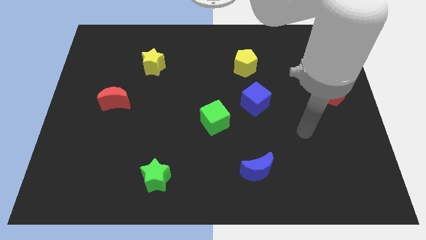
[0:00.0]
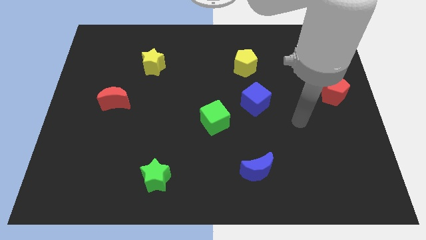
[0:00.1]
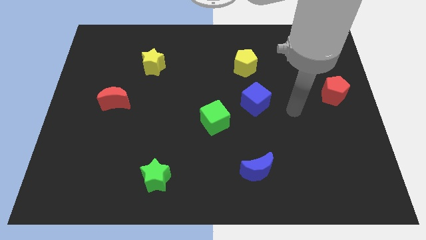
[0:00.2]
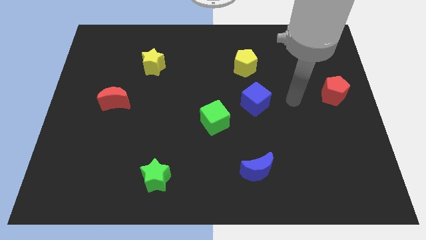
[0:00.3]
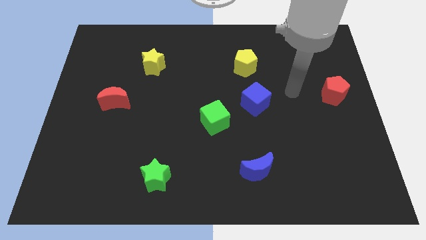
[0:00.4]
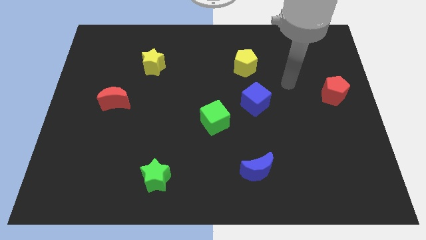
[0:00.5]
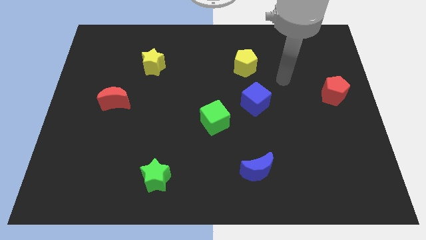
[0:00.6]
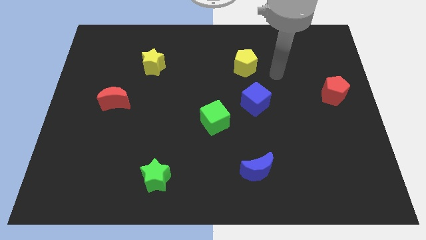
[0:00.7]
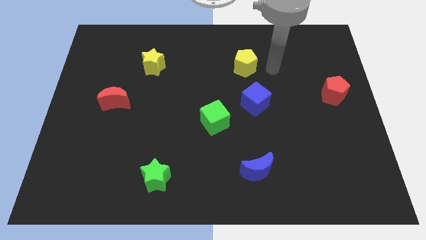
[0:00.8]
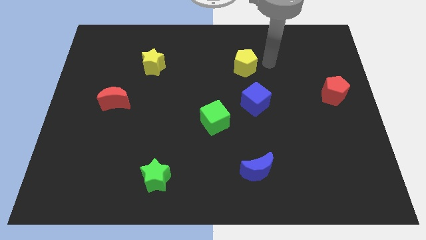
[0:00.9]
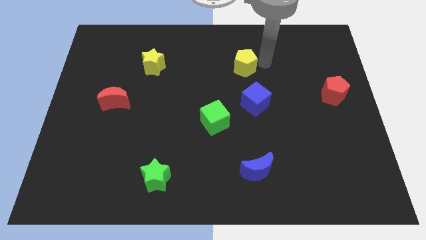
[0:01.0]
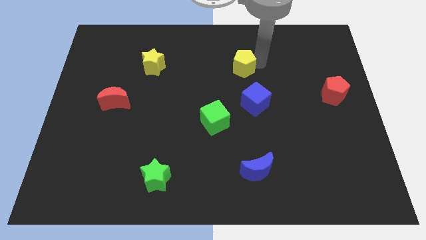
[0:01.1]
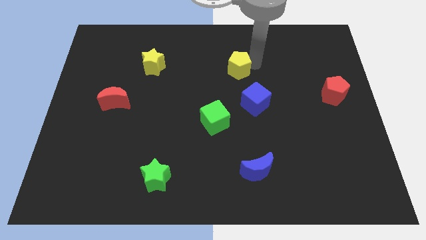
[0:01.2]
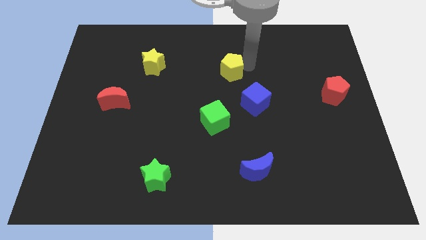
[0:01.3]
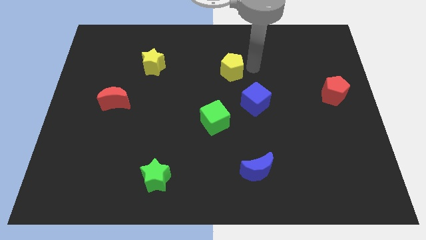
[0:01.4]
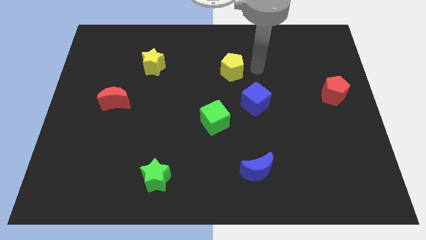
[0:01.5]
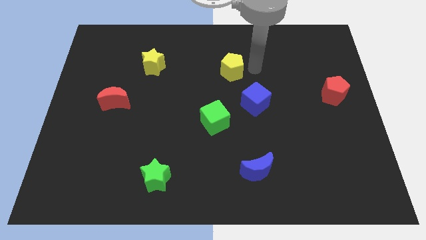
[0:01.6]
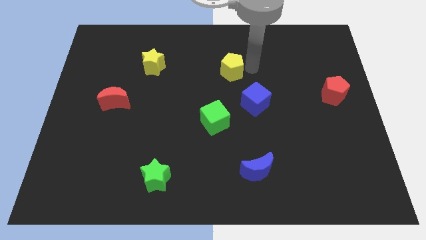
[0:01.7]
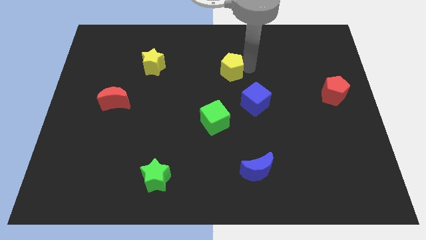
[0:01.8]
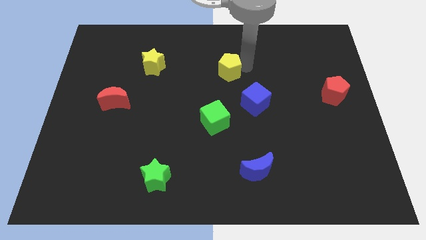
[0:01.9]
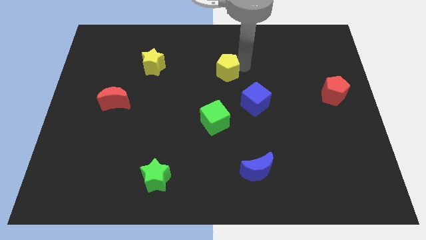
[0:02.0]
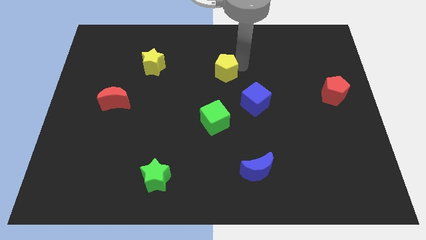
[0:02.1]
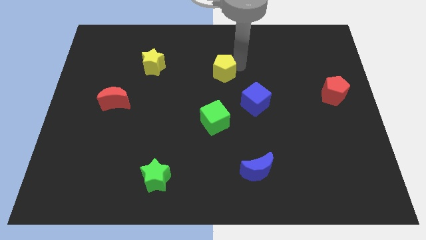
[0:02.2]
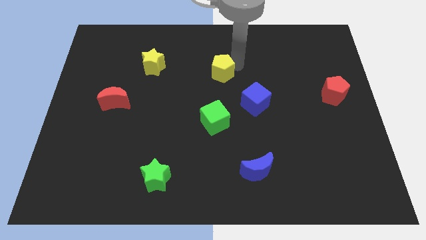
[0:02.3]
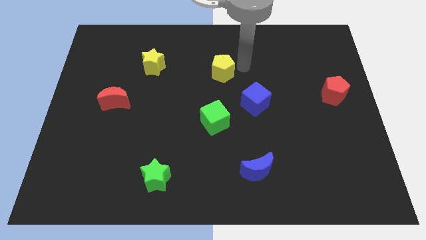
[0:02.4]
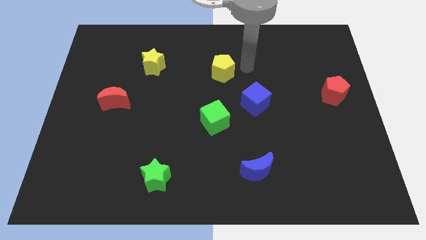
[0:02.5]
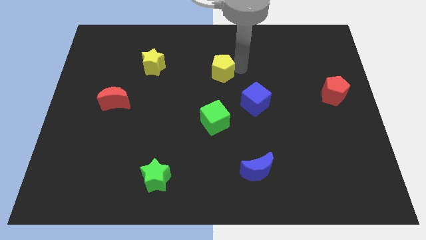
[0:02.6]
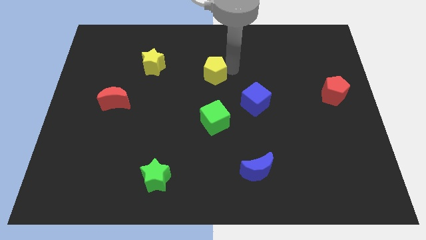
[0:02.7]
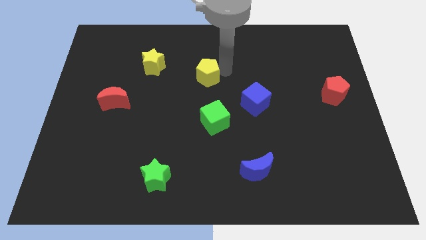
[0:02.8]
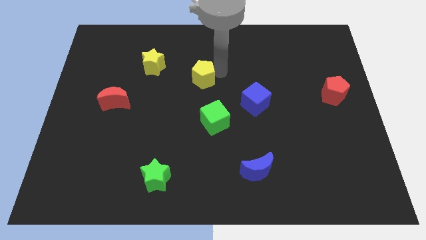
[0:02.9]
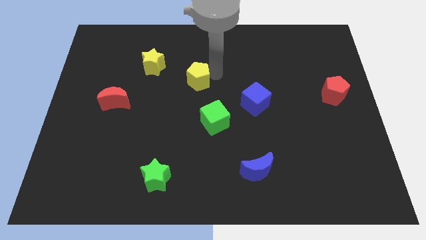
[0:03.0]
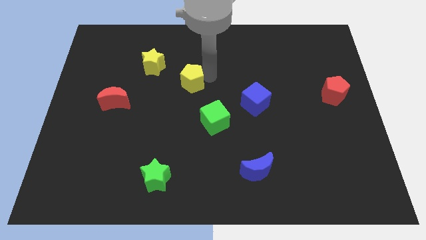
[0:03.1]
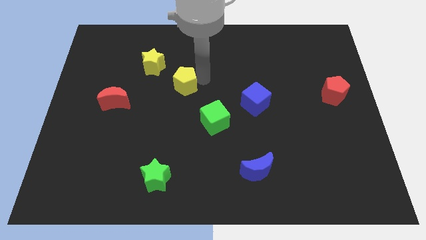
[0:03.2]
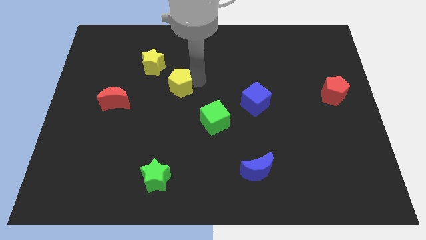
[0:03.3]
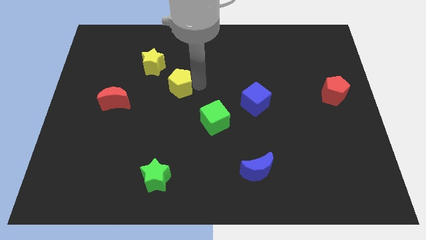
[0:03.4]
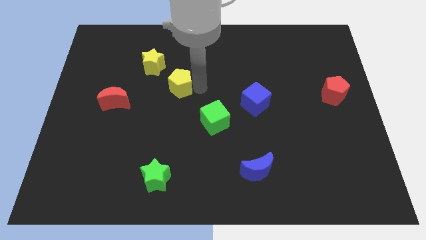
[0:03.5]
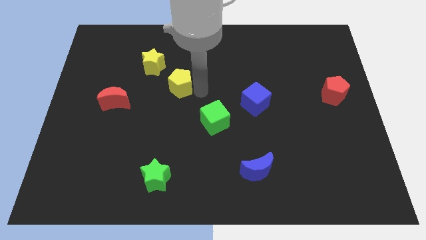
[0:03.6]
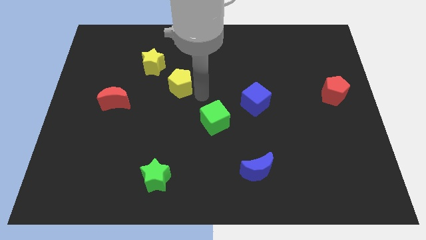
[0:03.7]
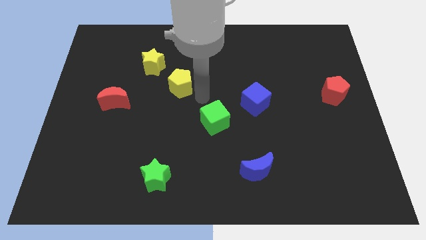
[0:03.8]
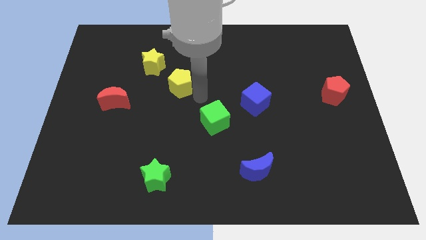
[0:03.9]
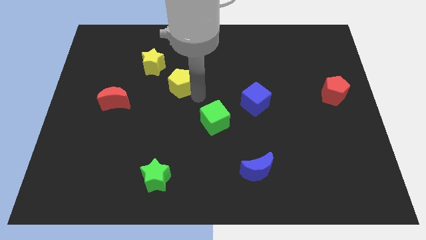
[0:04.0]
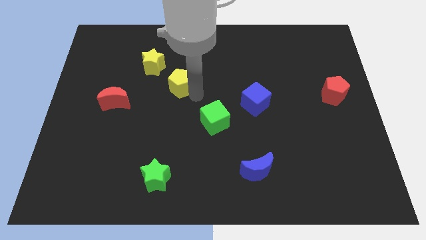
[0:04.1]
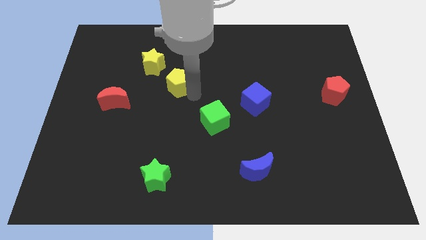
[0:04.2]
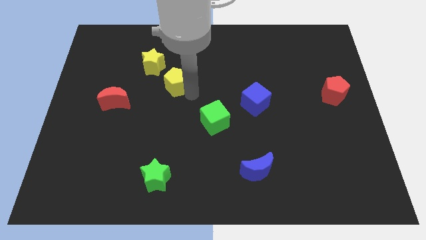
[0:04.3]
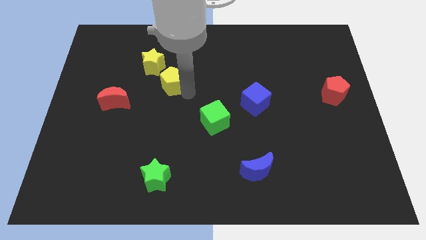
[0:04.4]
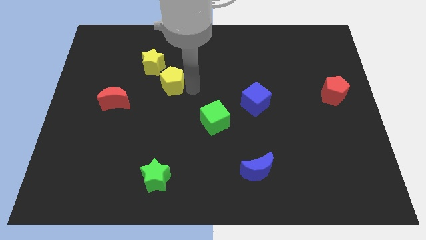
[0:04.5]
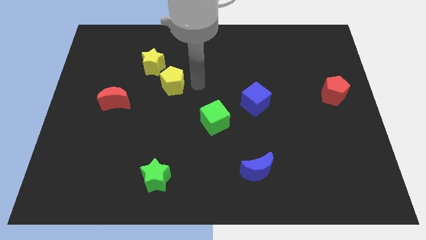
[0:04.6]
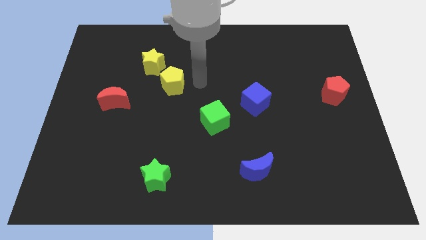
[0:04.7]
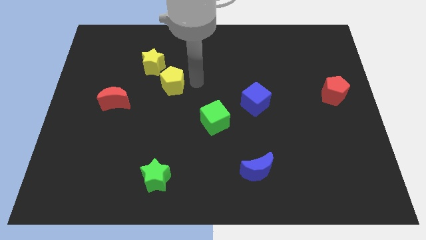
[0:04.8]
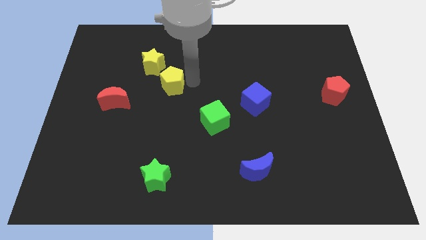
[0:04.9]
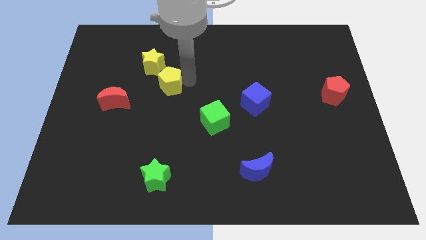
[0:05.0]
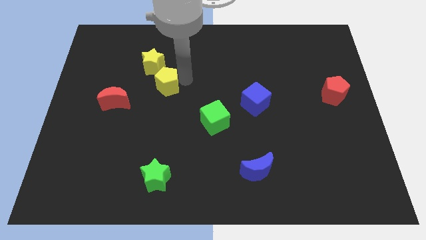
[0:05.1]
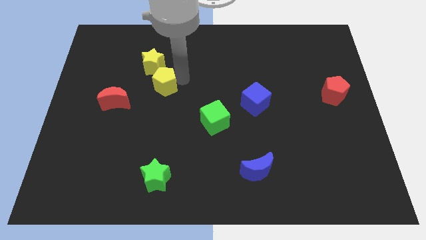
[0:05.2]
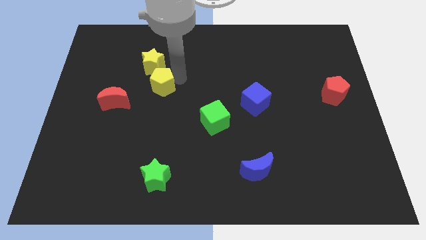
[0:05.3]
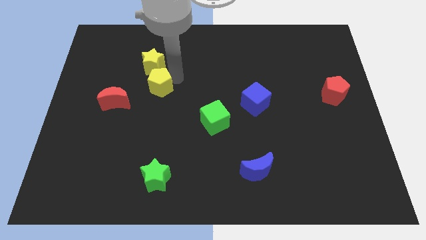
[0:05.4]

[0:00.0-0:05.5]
put the yellow pentagon to the top right of the red moon

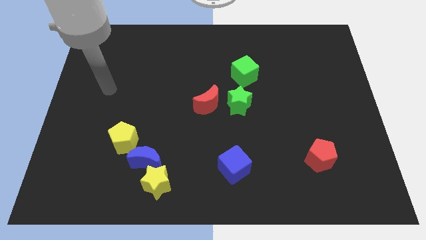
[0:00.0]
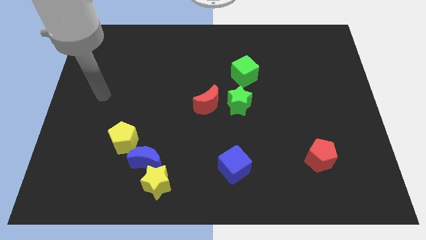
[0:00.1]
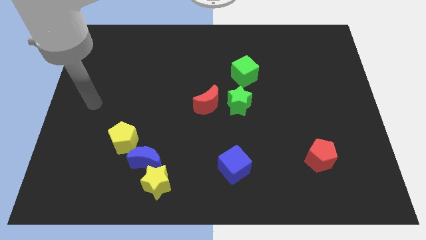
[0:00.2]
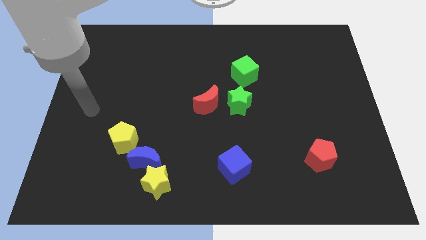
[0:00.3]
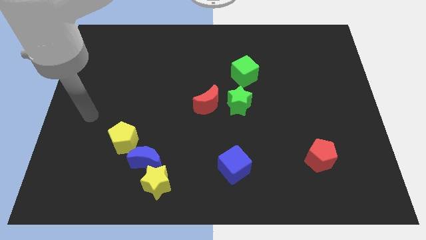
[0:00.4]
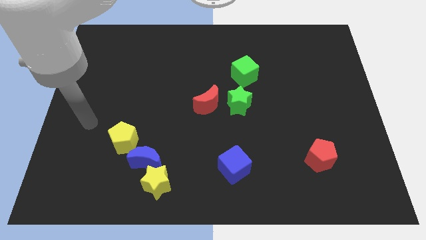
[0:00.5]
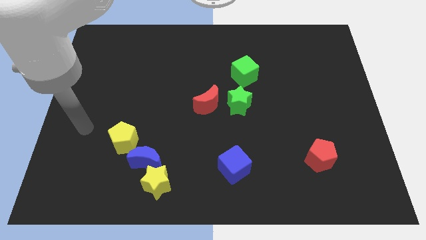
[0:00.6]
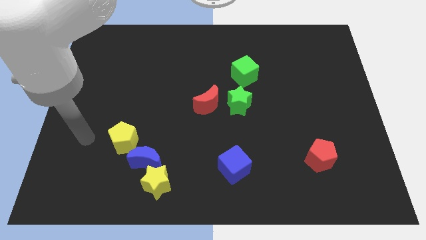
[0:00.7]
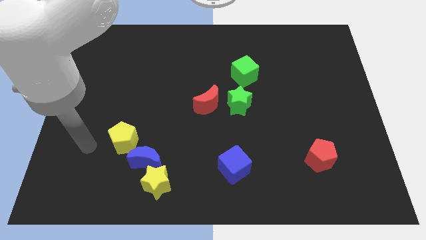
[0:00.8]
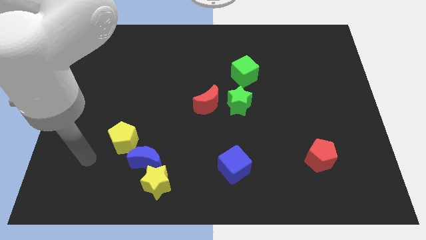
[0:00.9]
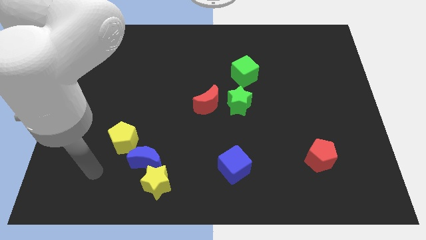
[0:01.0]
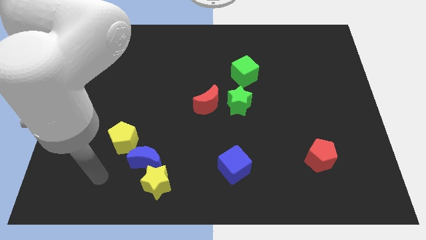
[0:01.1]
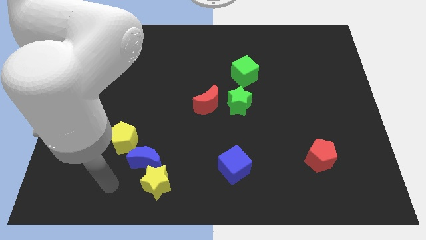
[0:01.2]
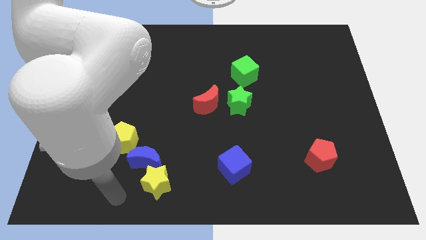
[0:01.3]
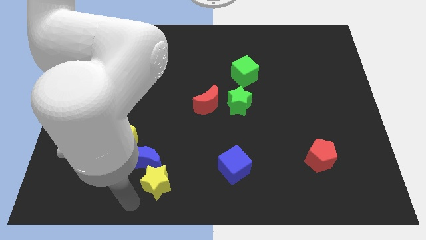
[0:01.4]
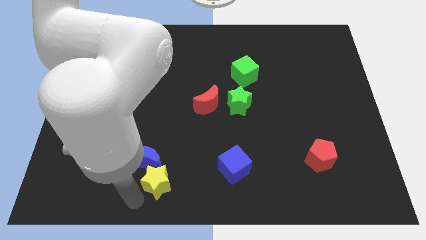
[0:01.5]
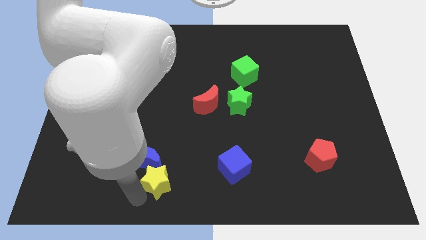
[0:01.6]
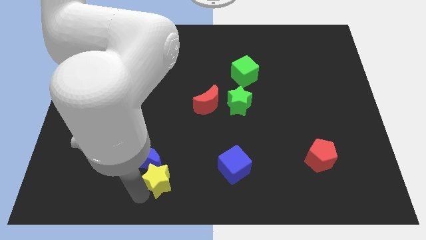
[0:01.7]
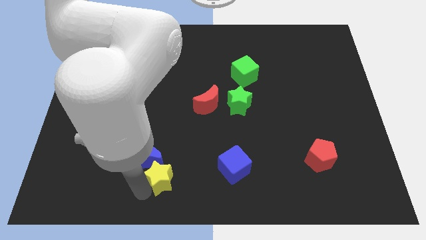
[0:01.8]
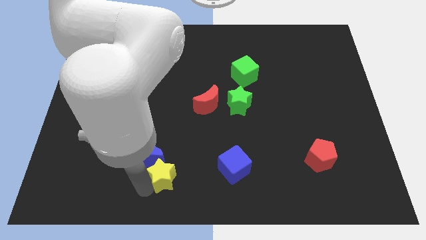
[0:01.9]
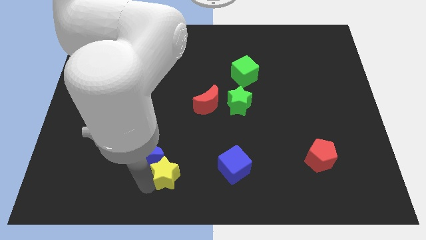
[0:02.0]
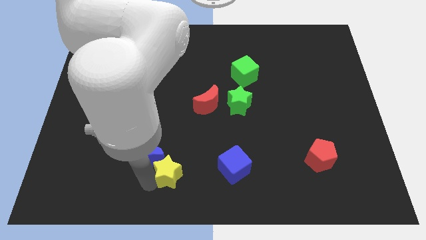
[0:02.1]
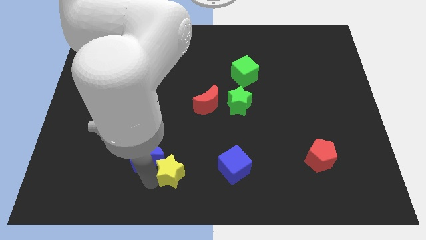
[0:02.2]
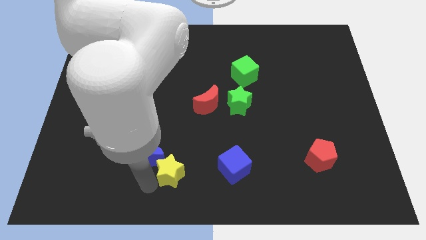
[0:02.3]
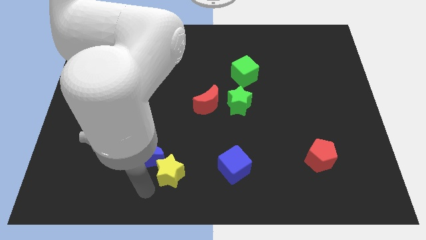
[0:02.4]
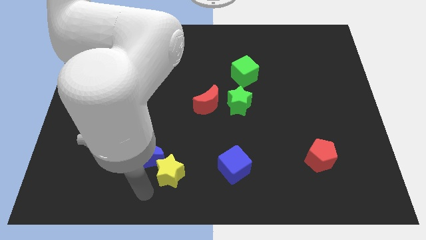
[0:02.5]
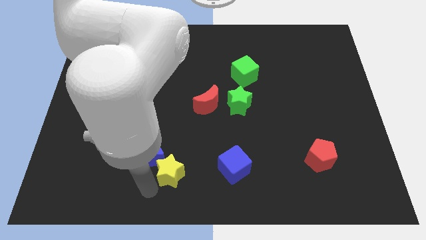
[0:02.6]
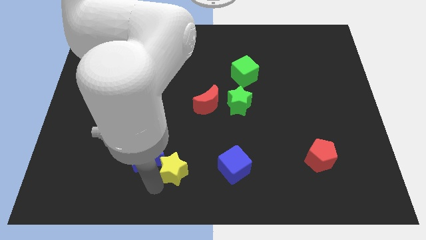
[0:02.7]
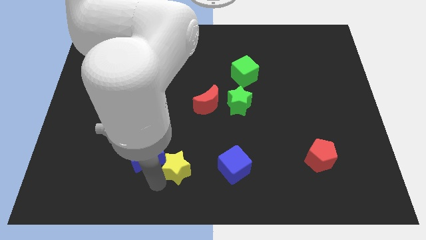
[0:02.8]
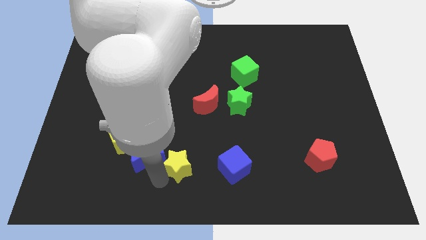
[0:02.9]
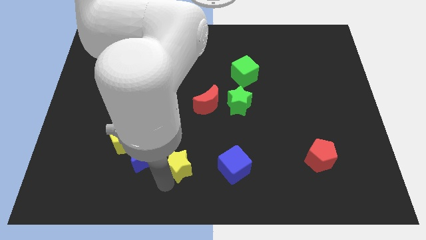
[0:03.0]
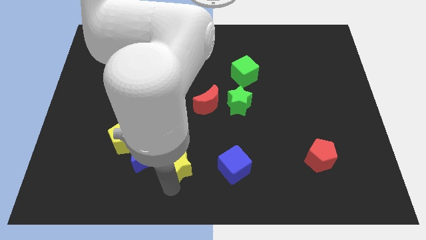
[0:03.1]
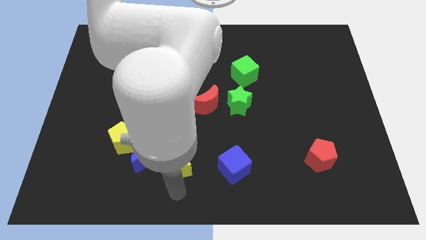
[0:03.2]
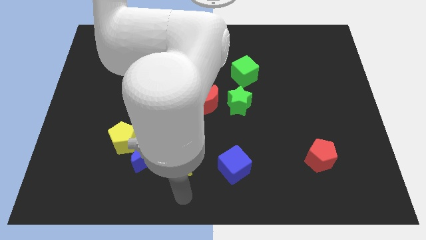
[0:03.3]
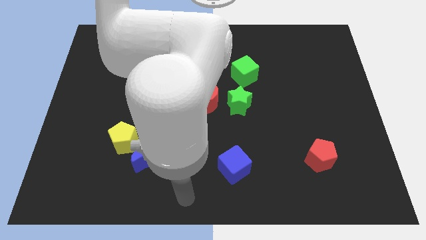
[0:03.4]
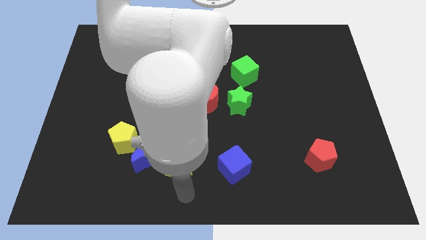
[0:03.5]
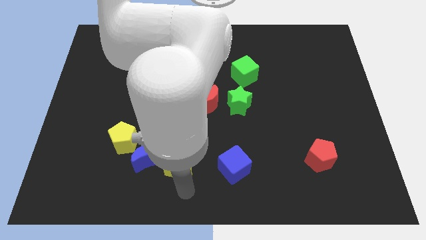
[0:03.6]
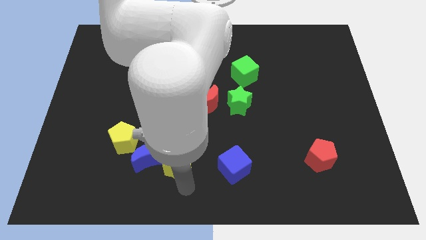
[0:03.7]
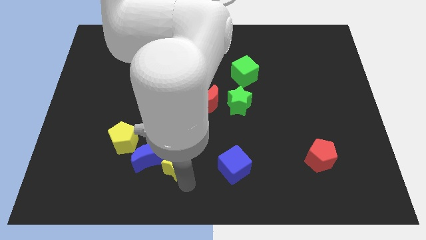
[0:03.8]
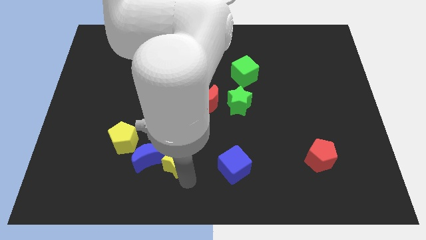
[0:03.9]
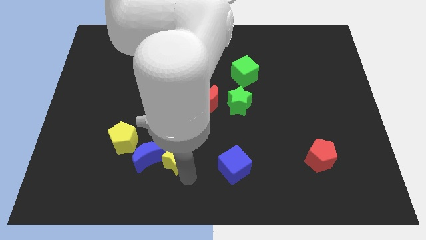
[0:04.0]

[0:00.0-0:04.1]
slide the yellow star to the right of the yellow pentagon
